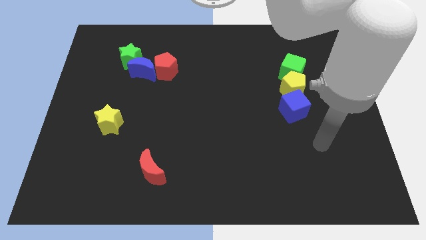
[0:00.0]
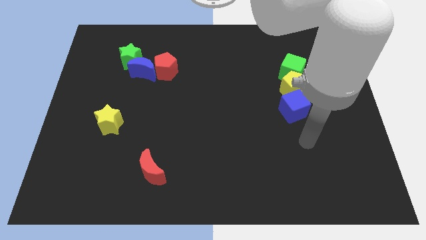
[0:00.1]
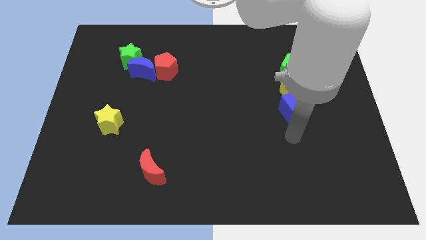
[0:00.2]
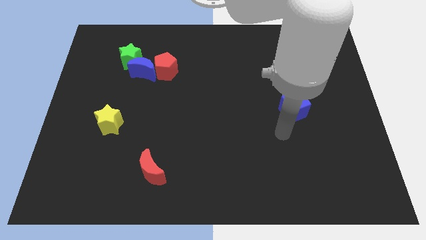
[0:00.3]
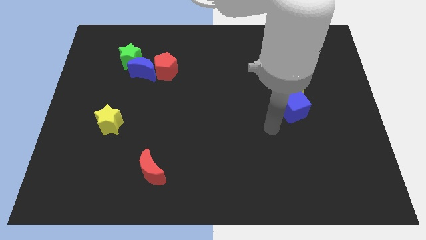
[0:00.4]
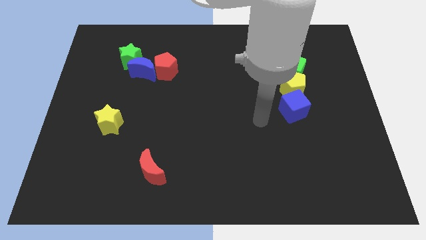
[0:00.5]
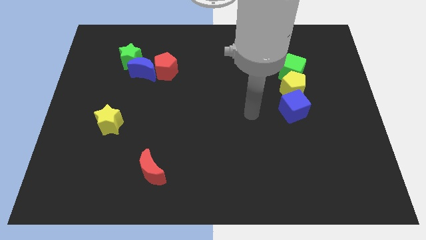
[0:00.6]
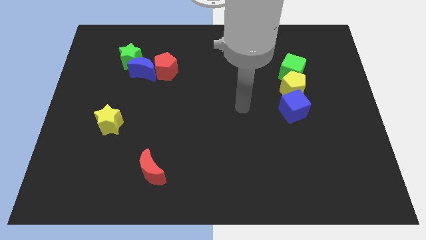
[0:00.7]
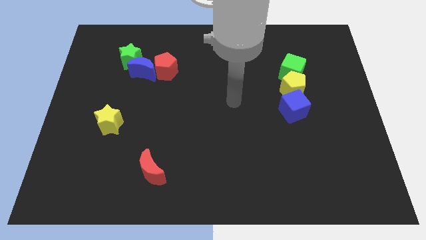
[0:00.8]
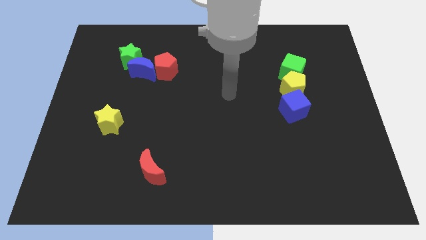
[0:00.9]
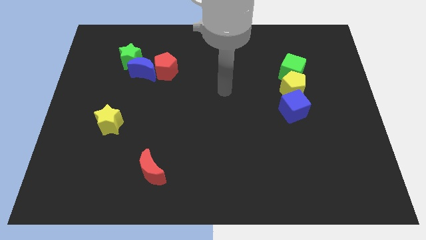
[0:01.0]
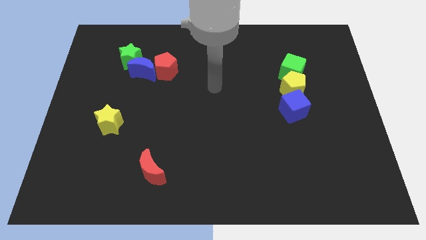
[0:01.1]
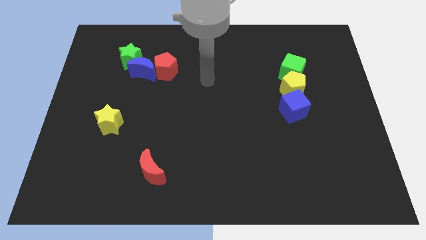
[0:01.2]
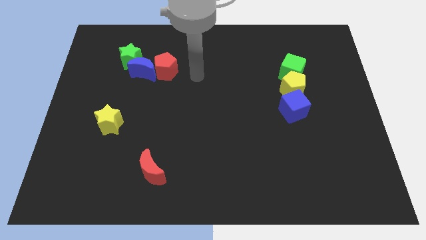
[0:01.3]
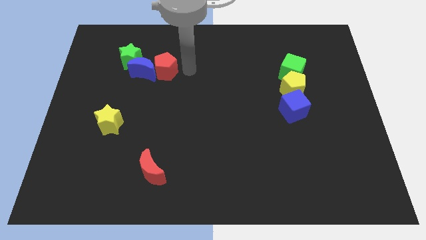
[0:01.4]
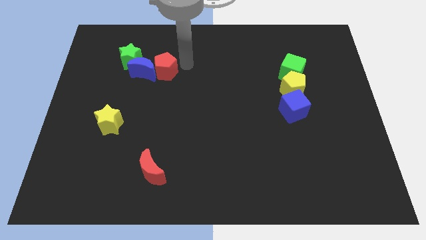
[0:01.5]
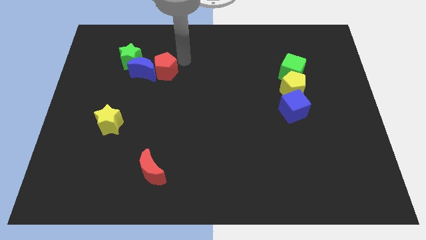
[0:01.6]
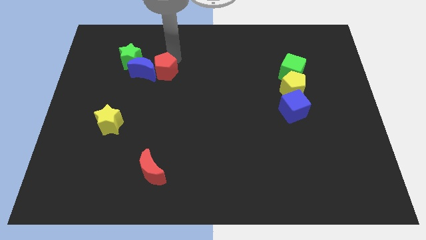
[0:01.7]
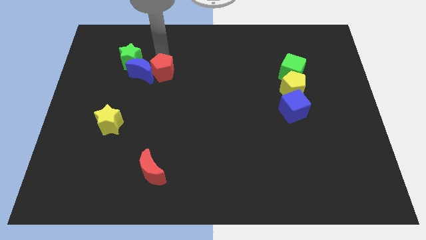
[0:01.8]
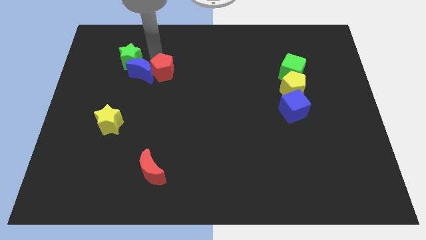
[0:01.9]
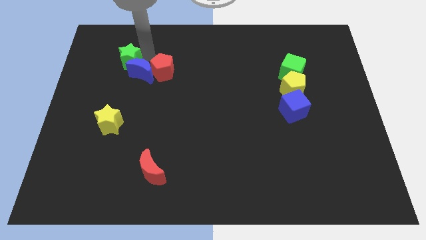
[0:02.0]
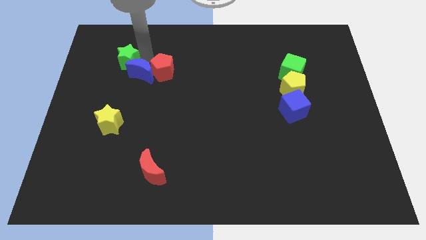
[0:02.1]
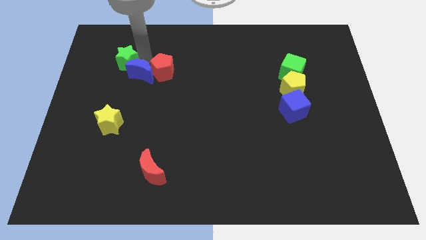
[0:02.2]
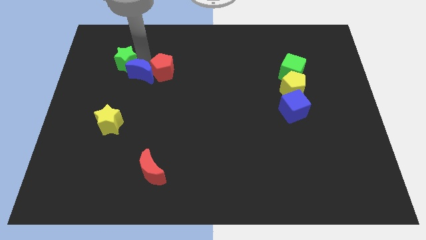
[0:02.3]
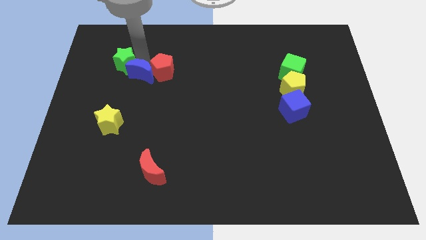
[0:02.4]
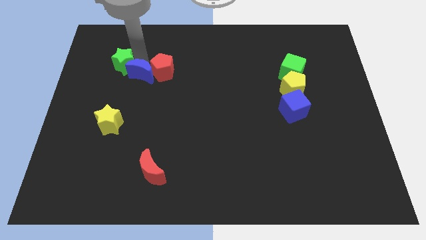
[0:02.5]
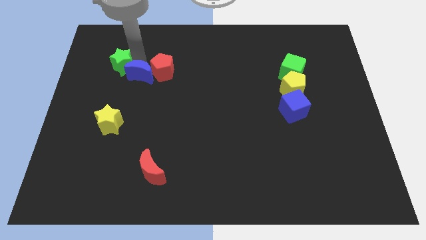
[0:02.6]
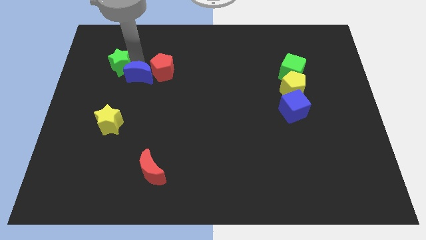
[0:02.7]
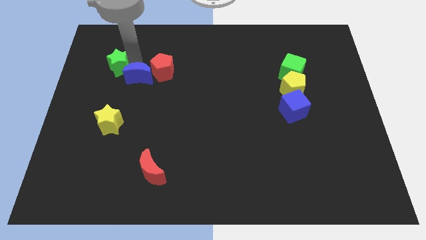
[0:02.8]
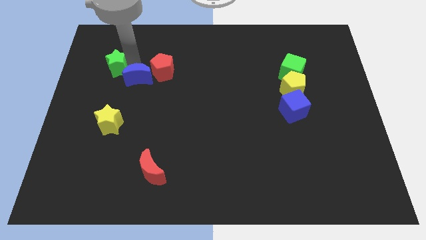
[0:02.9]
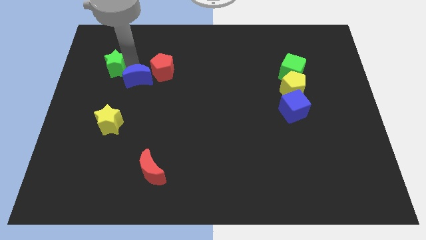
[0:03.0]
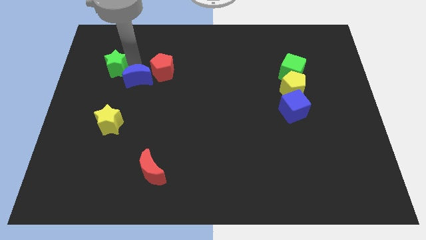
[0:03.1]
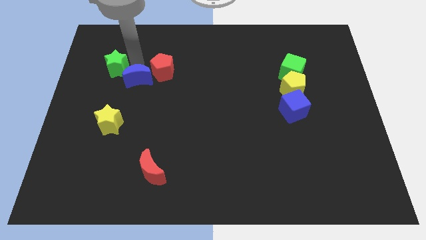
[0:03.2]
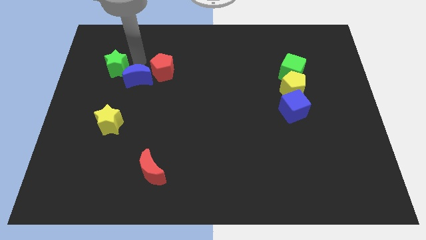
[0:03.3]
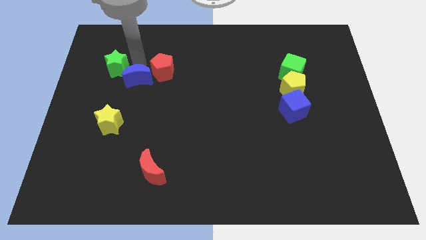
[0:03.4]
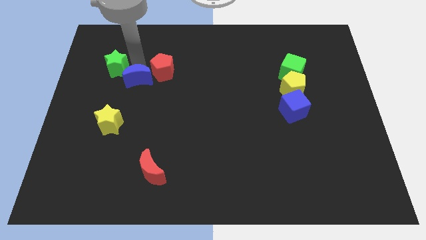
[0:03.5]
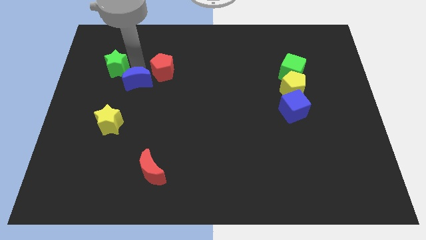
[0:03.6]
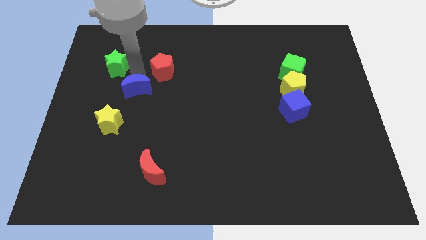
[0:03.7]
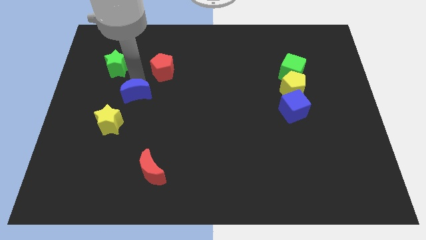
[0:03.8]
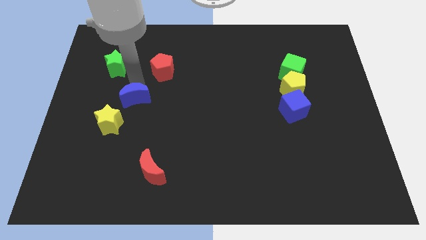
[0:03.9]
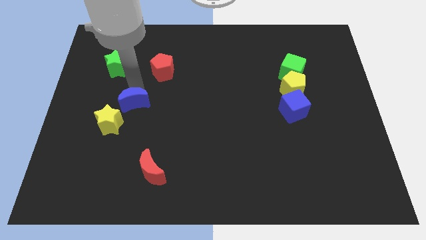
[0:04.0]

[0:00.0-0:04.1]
pull the blue moon apart from the green star and red pentagon

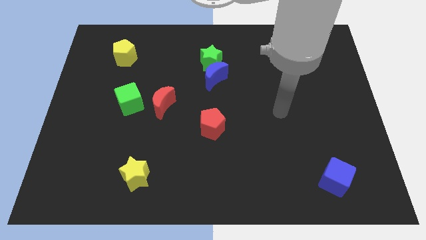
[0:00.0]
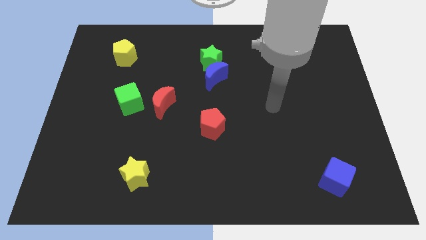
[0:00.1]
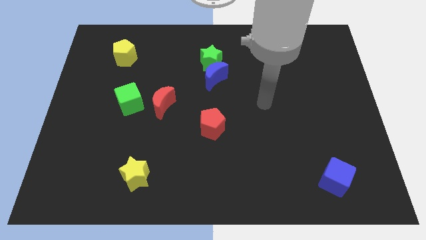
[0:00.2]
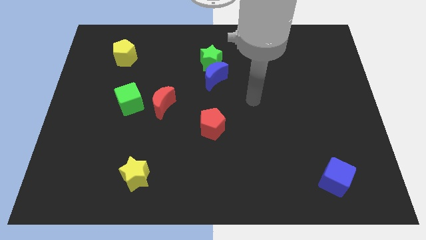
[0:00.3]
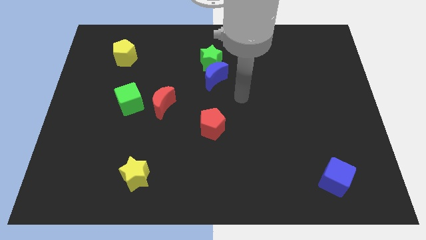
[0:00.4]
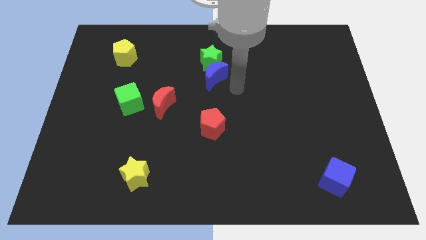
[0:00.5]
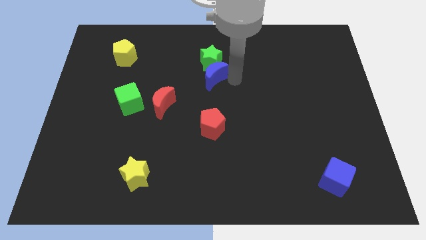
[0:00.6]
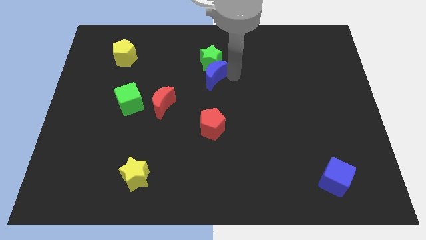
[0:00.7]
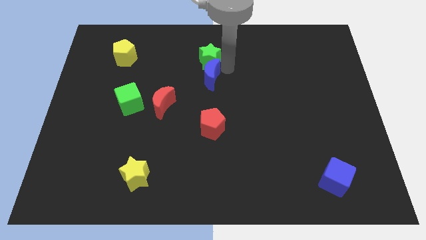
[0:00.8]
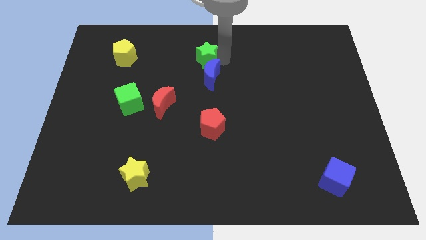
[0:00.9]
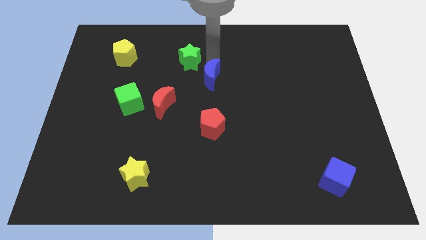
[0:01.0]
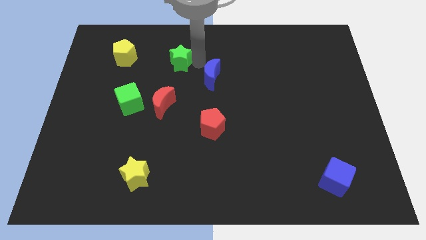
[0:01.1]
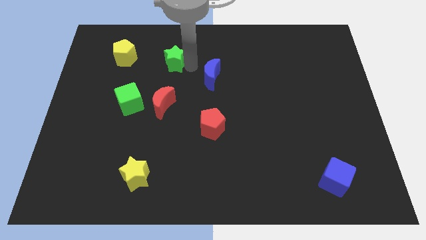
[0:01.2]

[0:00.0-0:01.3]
separate the blue moon from the green star

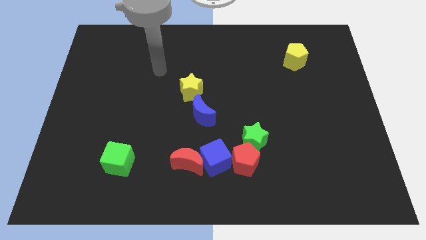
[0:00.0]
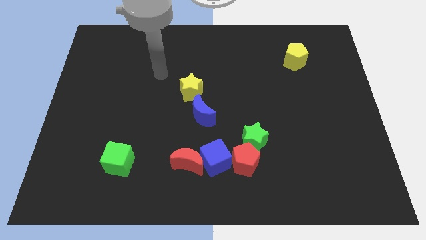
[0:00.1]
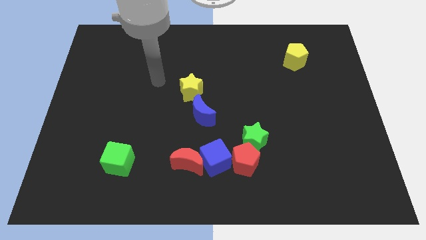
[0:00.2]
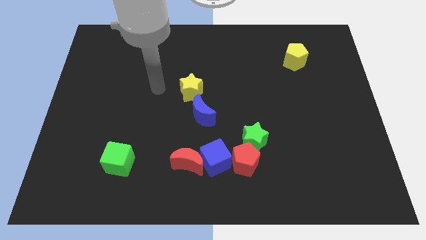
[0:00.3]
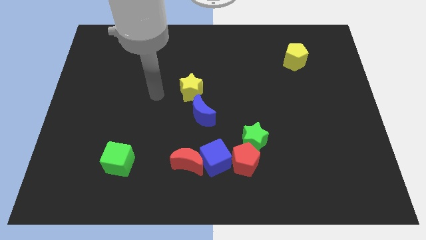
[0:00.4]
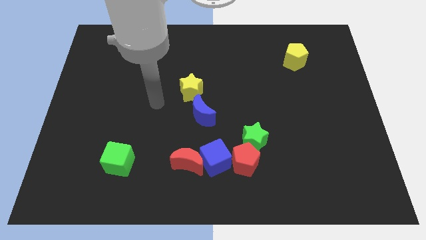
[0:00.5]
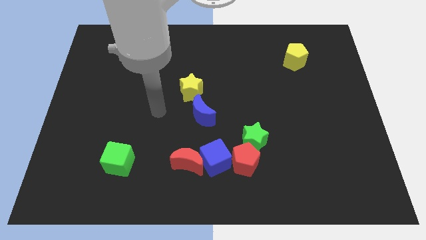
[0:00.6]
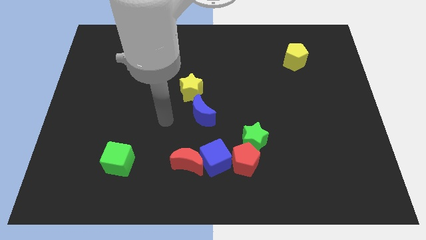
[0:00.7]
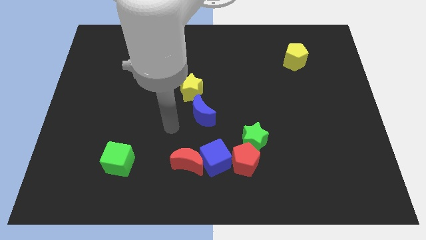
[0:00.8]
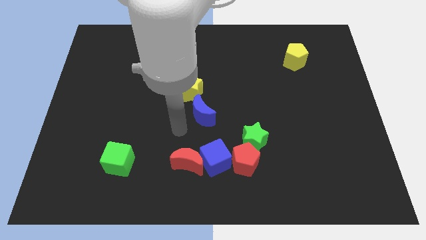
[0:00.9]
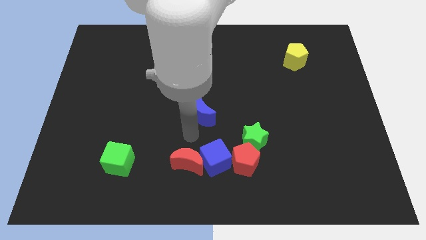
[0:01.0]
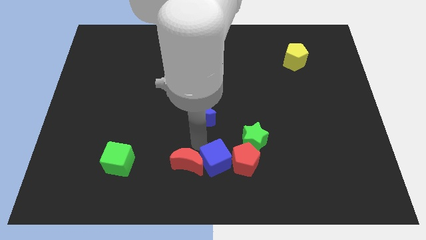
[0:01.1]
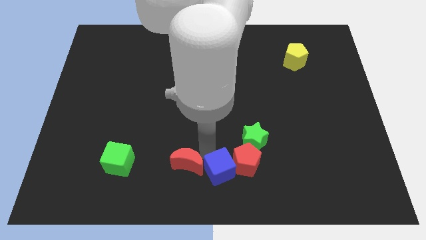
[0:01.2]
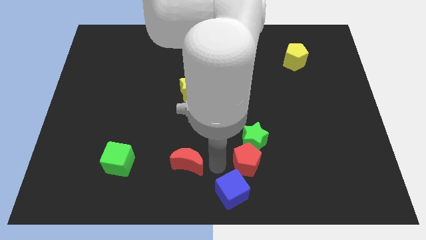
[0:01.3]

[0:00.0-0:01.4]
pull the red moon apart from the blue cube

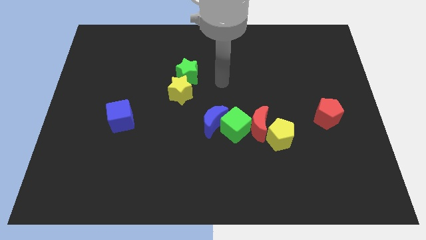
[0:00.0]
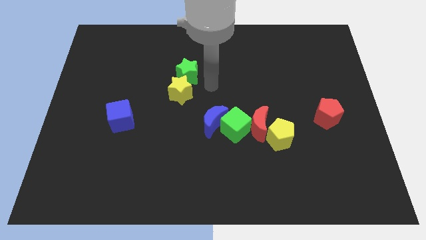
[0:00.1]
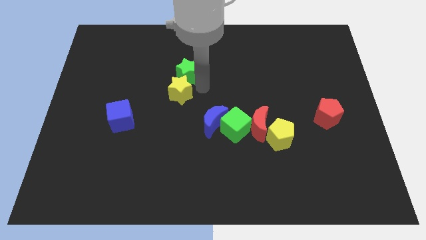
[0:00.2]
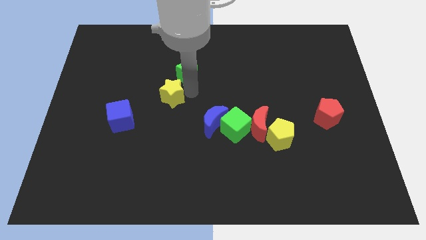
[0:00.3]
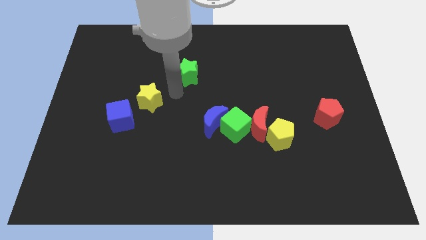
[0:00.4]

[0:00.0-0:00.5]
separate the green star from the yellow star

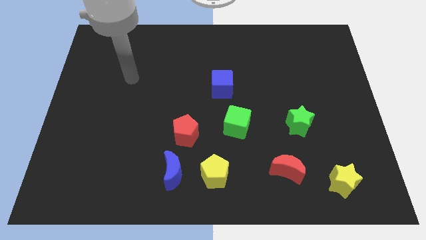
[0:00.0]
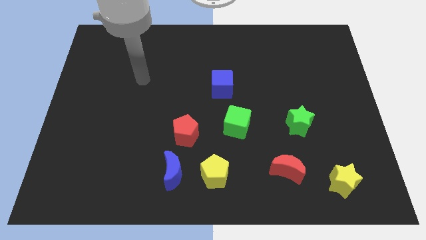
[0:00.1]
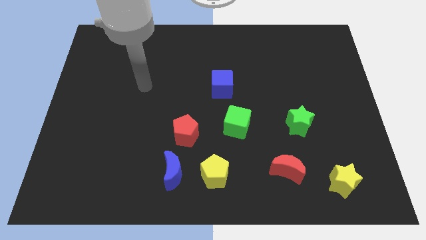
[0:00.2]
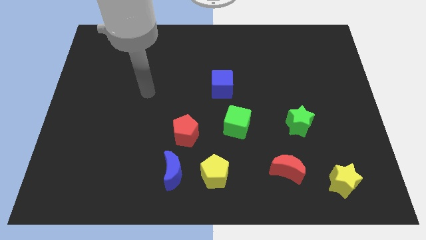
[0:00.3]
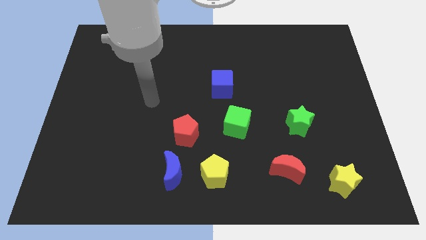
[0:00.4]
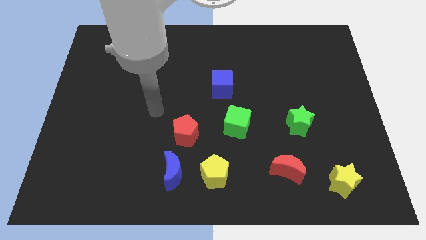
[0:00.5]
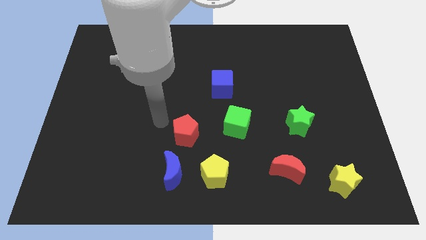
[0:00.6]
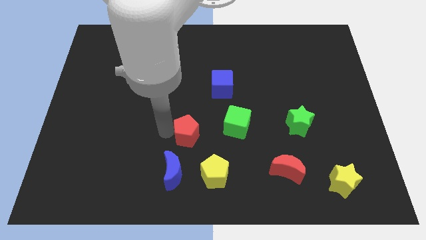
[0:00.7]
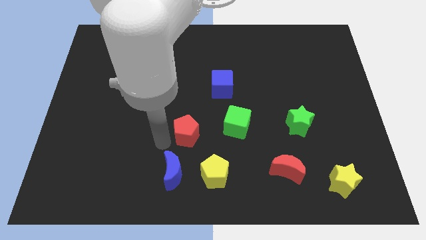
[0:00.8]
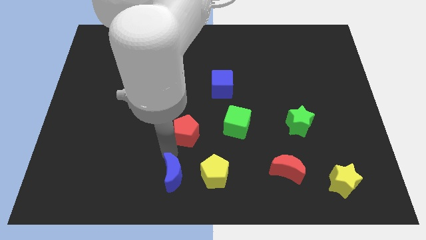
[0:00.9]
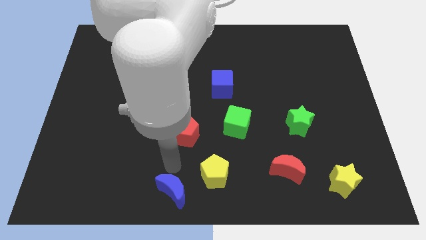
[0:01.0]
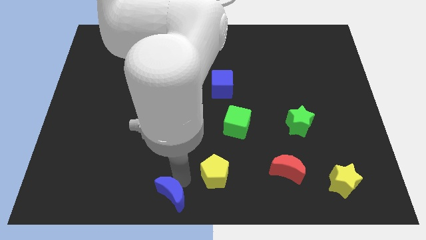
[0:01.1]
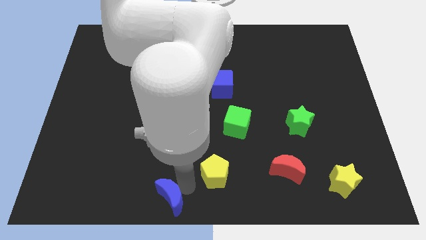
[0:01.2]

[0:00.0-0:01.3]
pull the yellow pentagon apart from the blue moon

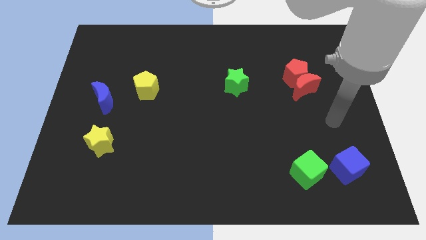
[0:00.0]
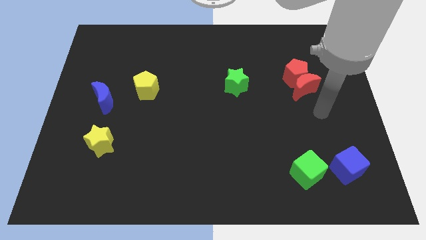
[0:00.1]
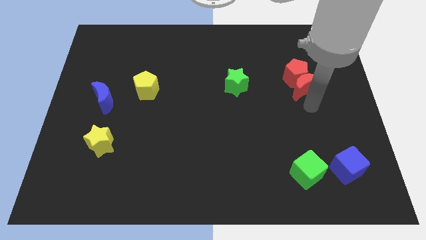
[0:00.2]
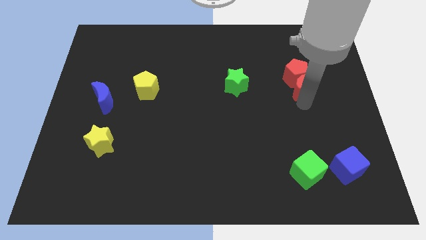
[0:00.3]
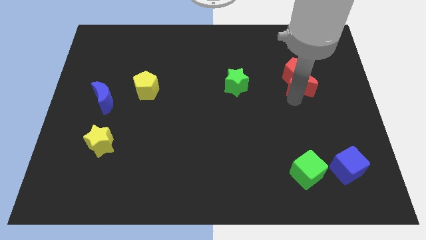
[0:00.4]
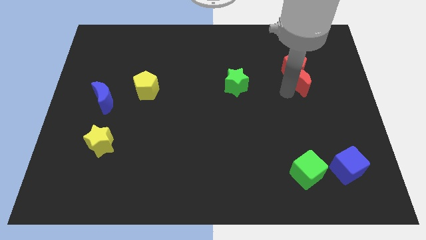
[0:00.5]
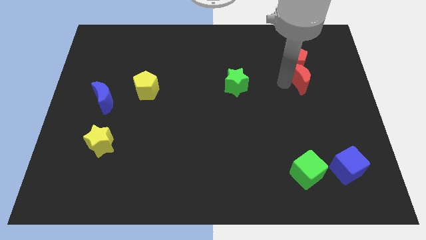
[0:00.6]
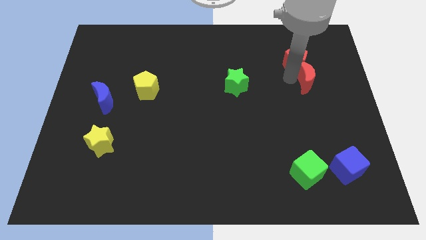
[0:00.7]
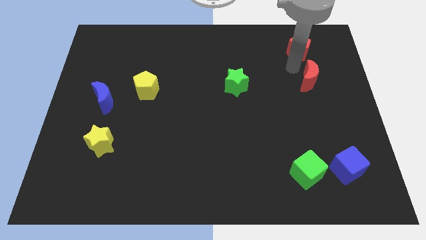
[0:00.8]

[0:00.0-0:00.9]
move the red moon away from the red pentagon
